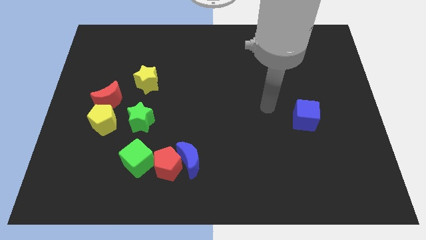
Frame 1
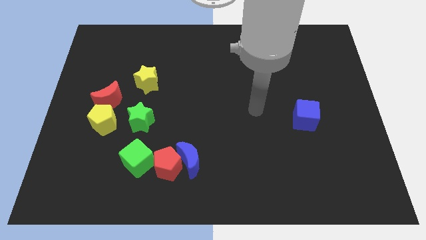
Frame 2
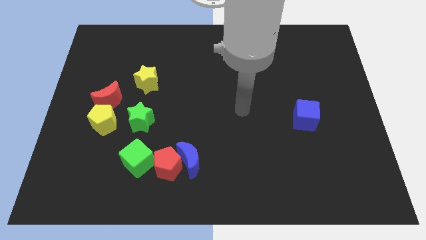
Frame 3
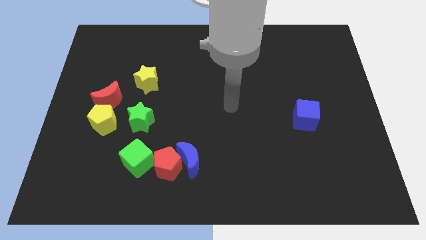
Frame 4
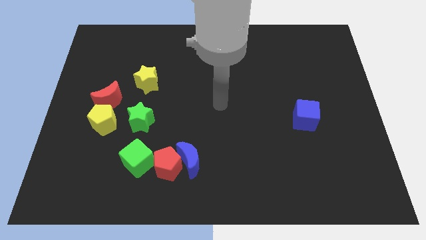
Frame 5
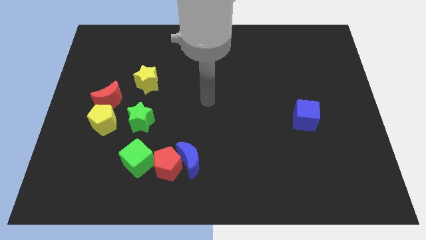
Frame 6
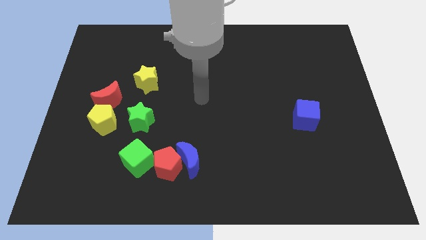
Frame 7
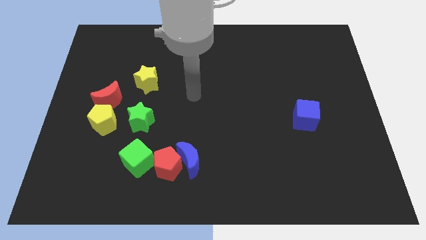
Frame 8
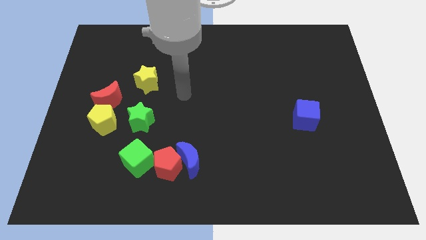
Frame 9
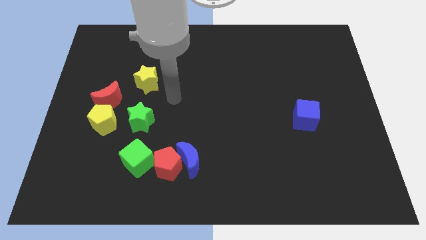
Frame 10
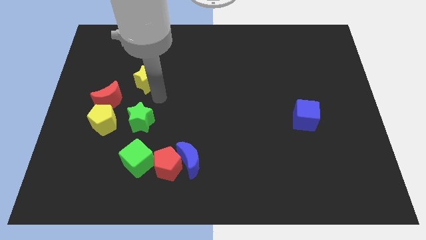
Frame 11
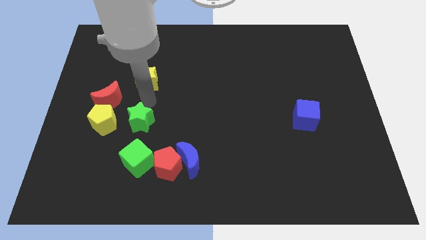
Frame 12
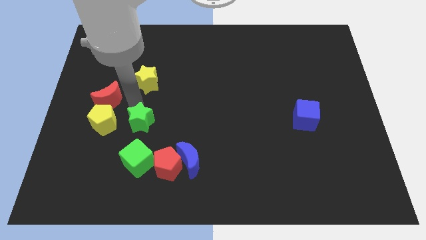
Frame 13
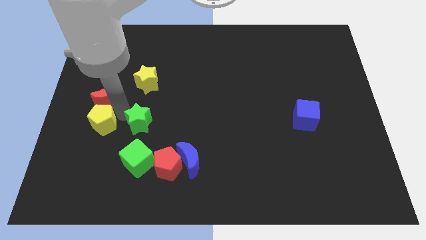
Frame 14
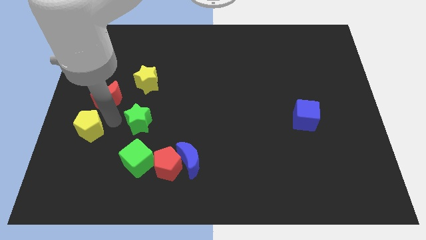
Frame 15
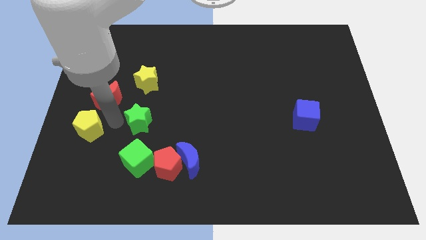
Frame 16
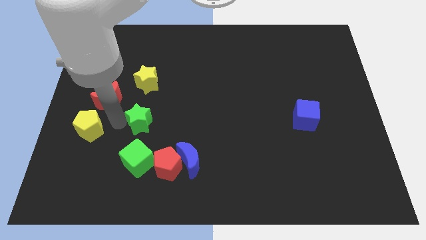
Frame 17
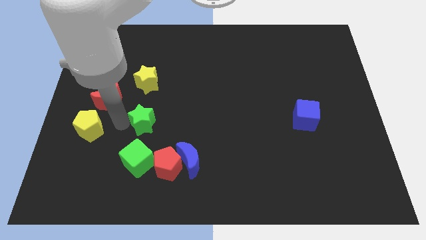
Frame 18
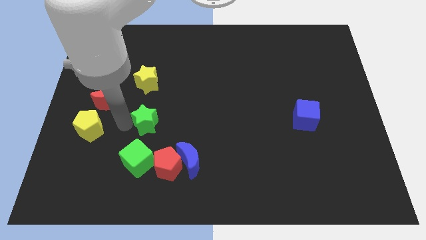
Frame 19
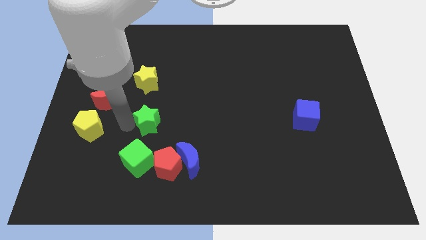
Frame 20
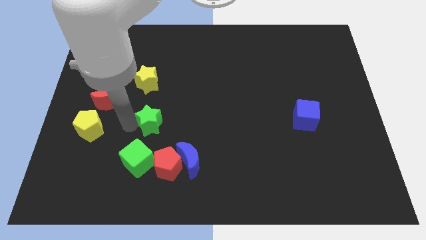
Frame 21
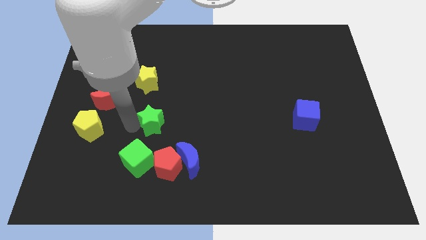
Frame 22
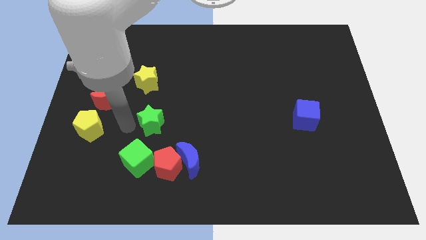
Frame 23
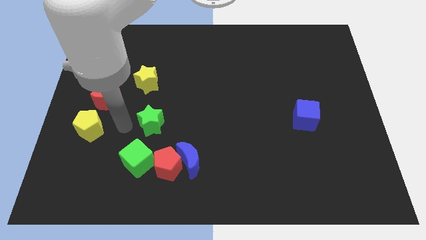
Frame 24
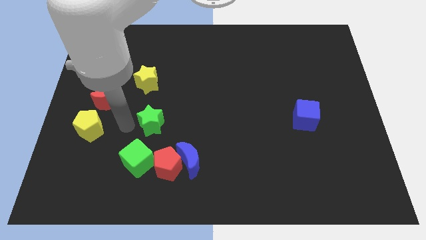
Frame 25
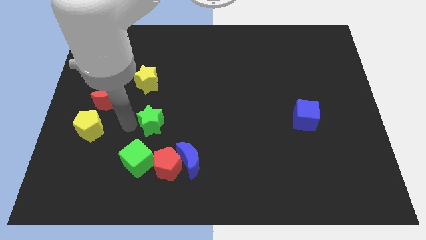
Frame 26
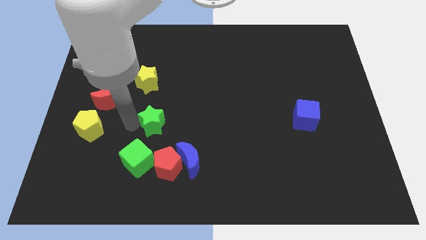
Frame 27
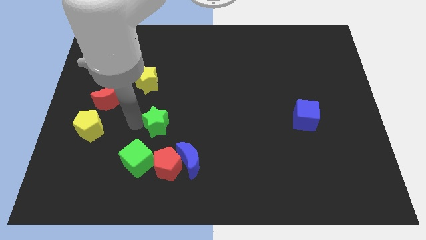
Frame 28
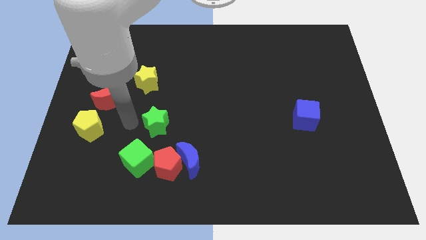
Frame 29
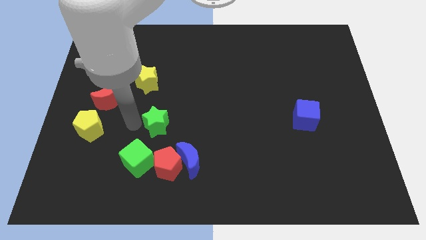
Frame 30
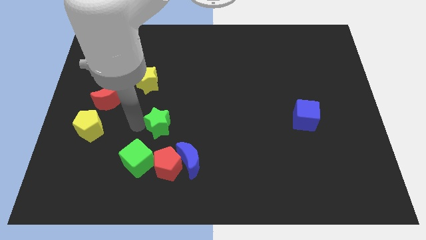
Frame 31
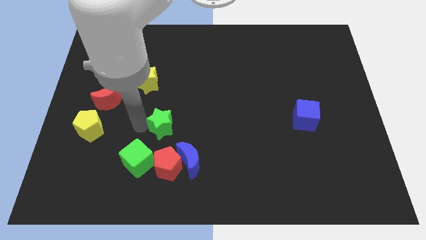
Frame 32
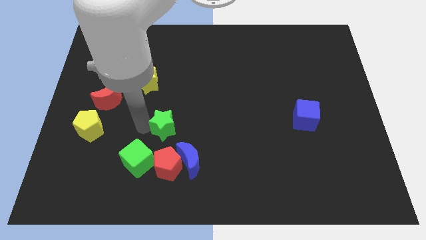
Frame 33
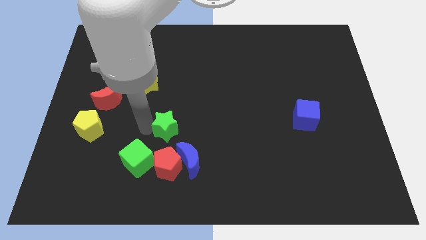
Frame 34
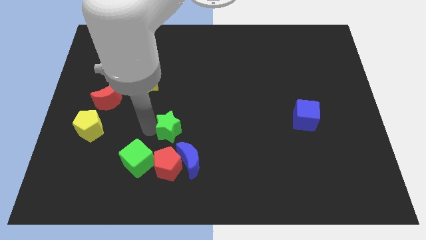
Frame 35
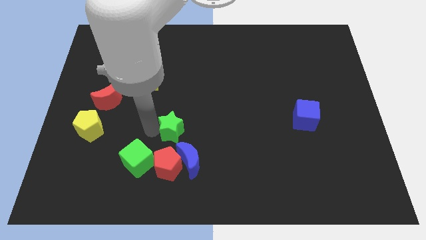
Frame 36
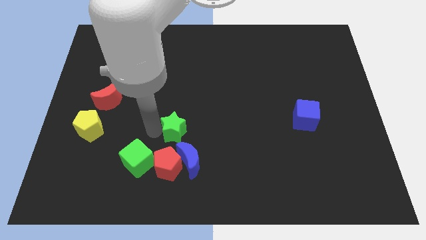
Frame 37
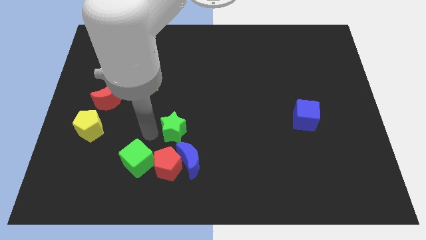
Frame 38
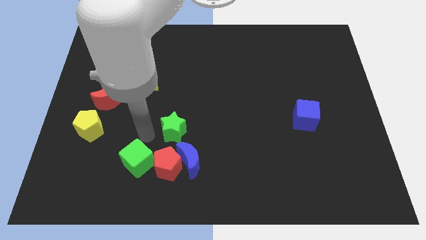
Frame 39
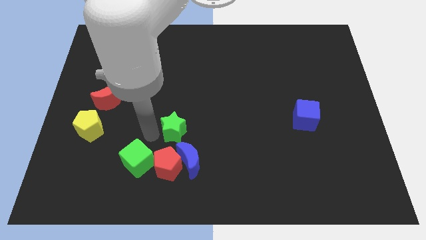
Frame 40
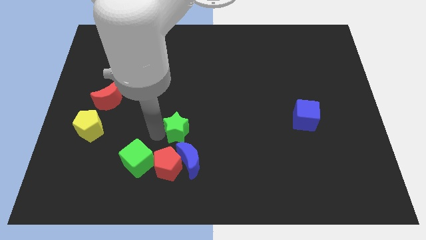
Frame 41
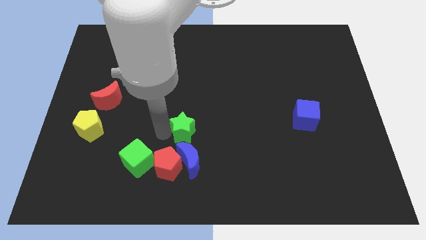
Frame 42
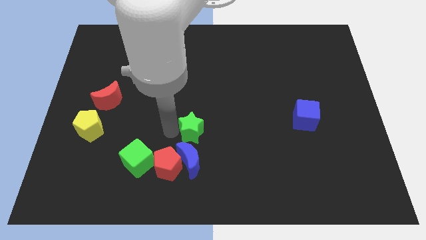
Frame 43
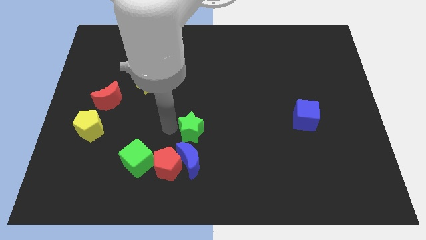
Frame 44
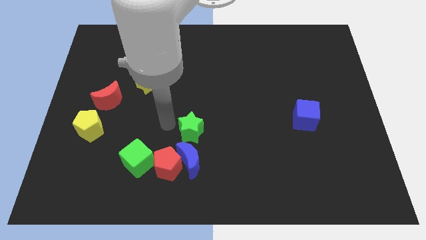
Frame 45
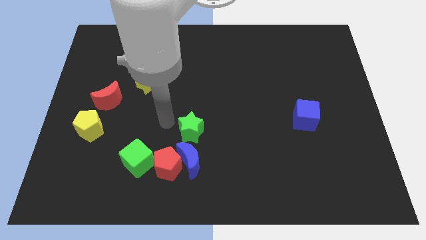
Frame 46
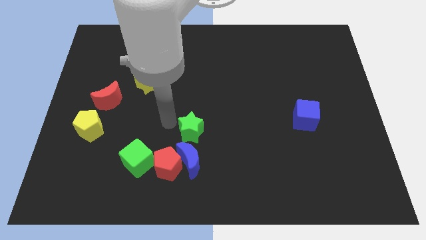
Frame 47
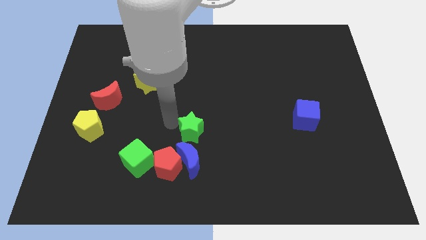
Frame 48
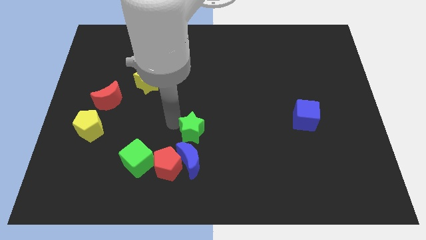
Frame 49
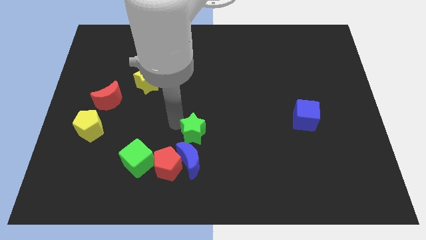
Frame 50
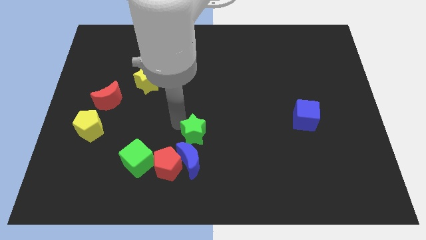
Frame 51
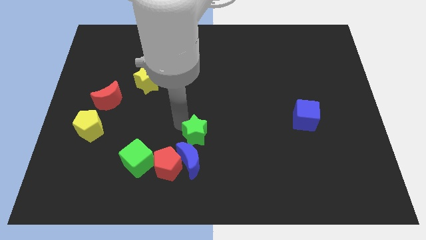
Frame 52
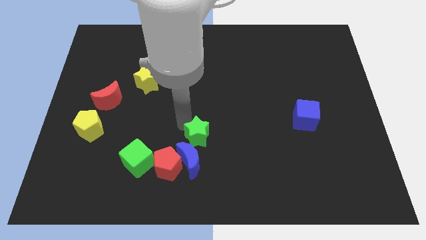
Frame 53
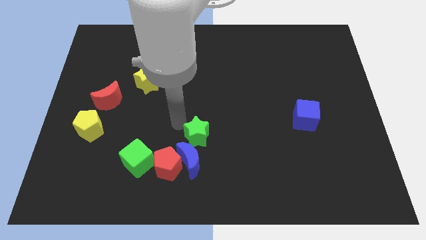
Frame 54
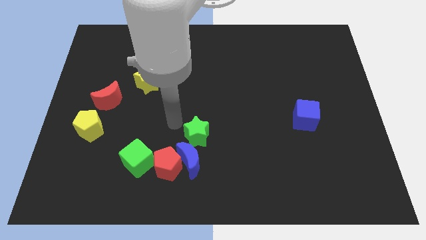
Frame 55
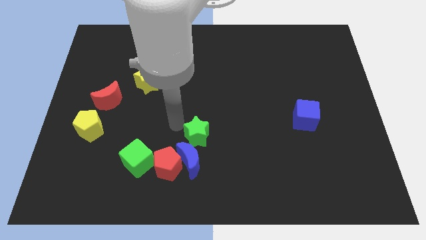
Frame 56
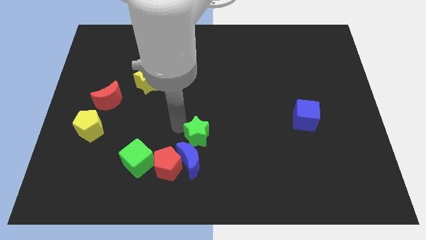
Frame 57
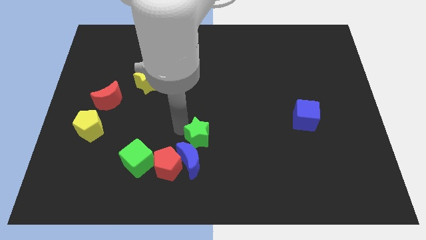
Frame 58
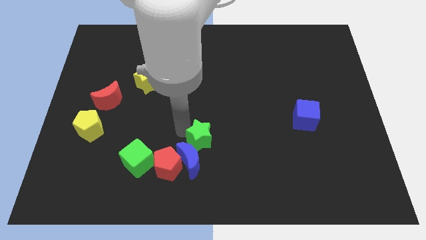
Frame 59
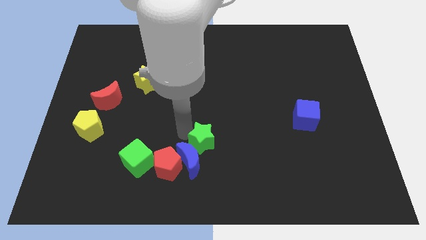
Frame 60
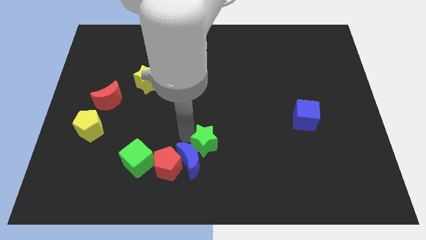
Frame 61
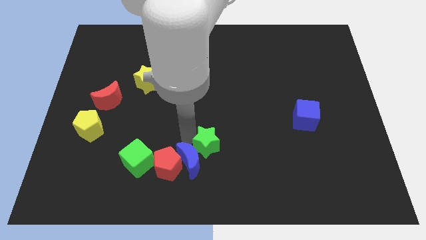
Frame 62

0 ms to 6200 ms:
slide the green star just right of the blue moon

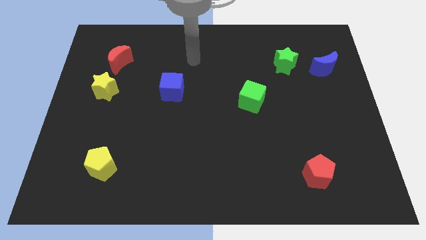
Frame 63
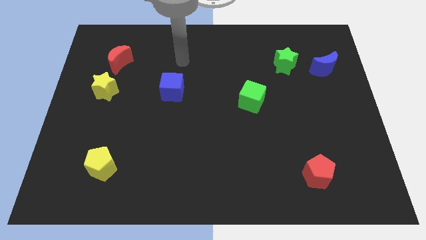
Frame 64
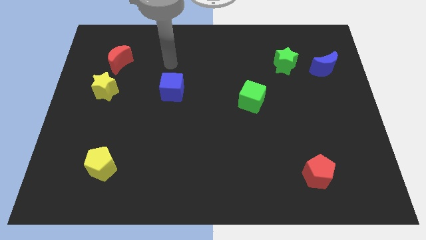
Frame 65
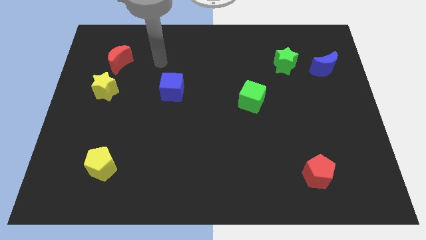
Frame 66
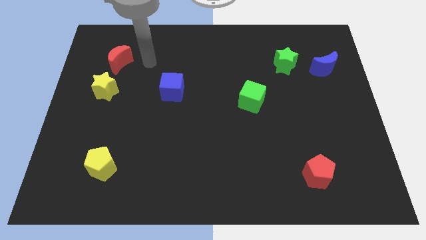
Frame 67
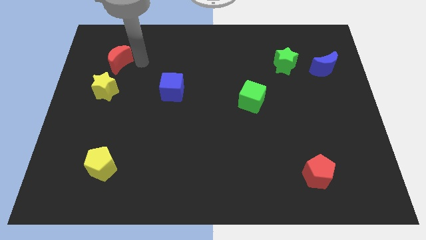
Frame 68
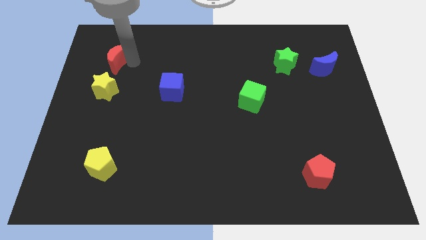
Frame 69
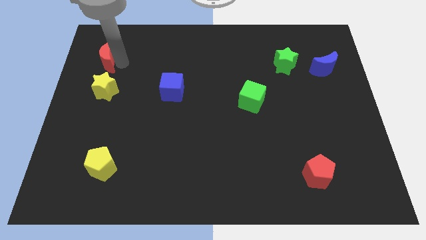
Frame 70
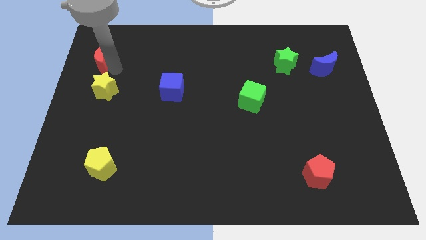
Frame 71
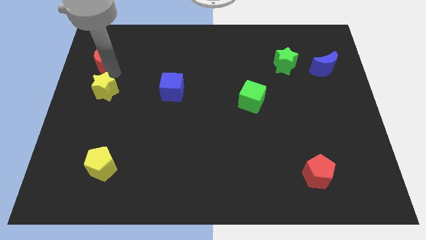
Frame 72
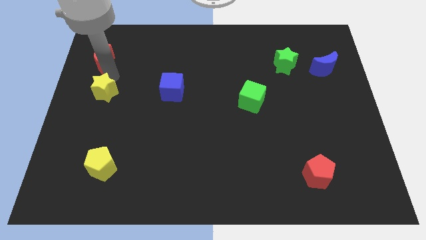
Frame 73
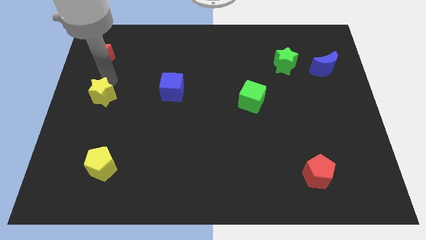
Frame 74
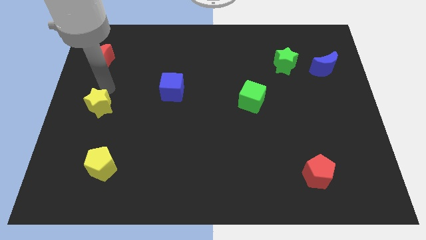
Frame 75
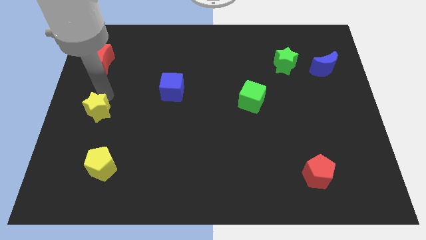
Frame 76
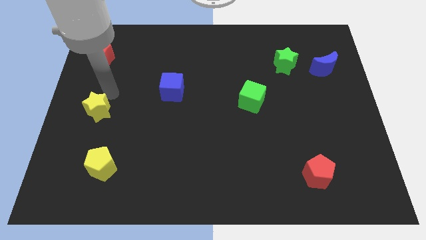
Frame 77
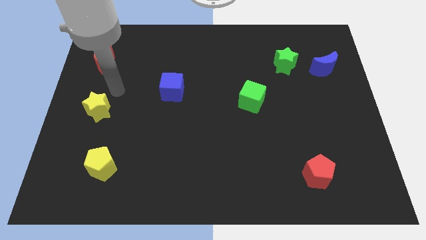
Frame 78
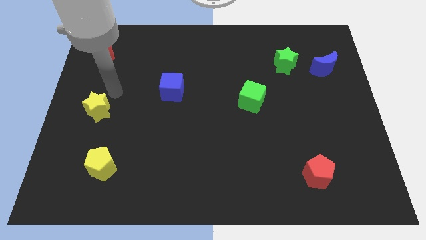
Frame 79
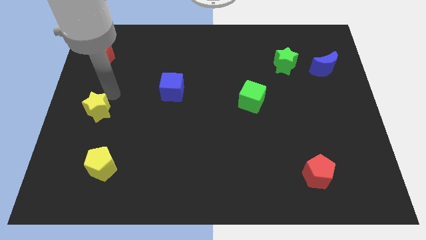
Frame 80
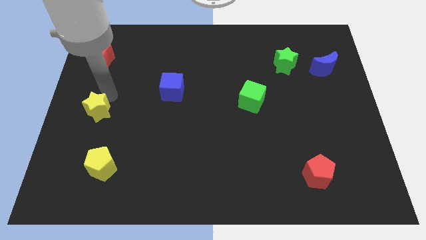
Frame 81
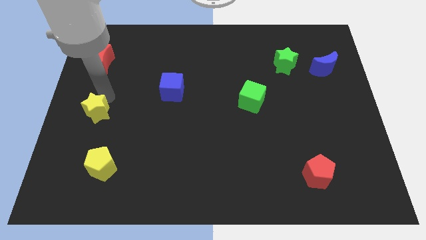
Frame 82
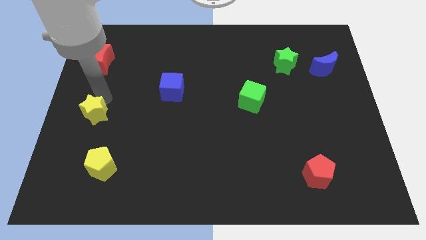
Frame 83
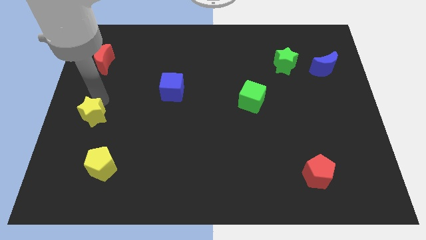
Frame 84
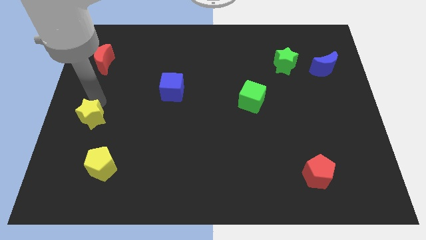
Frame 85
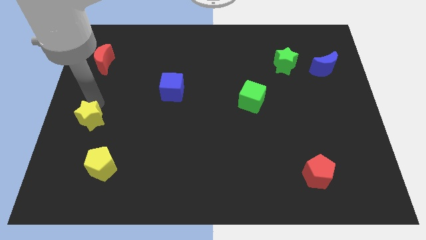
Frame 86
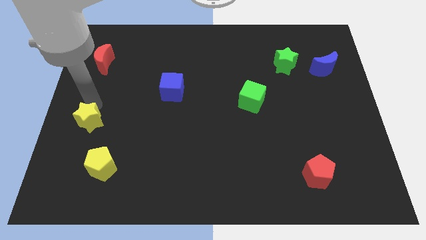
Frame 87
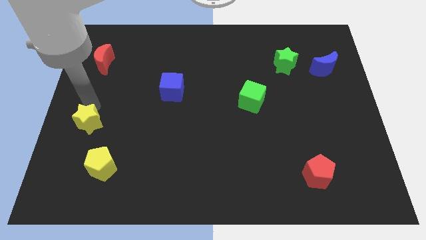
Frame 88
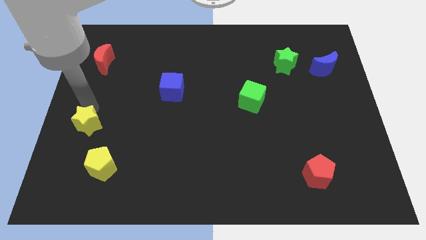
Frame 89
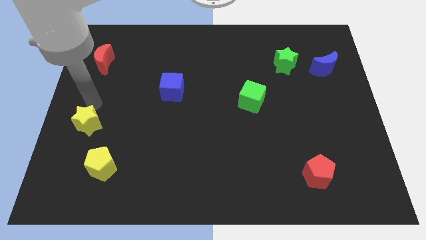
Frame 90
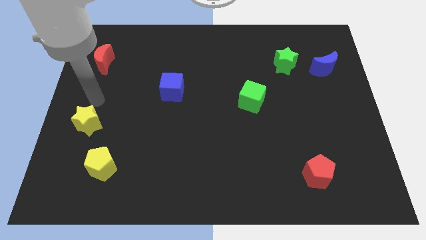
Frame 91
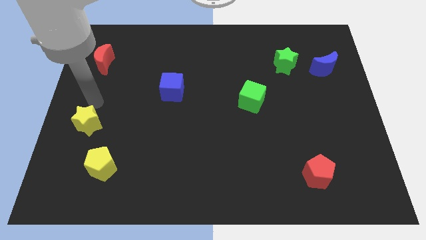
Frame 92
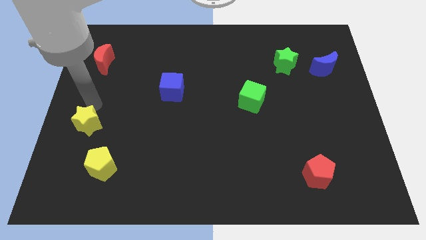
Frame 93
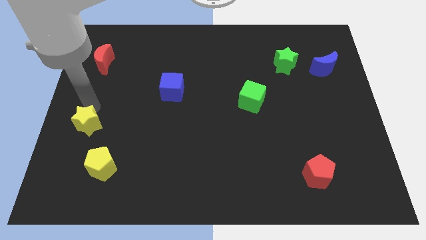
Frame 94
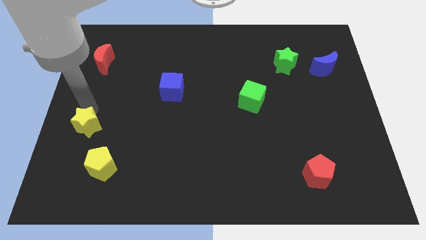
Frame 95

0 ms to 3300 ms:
slide the yellow star to the top left of the yellow pentagon
